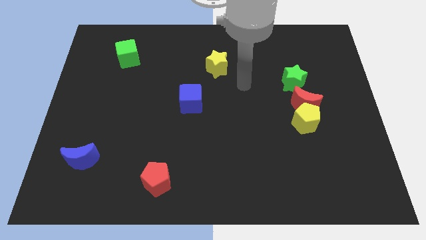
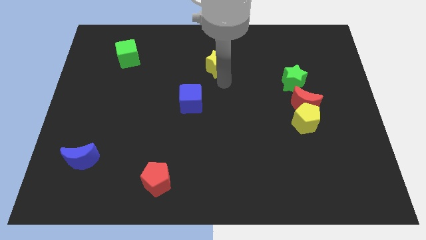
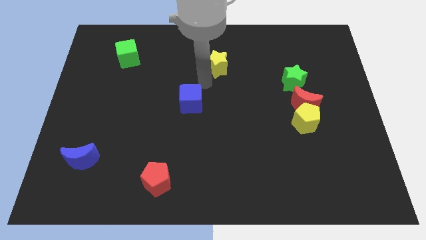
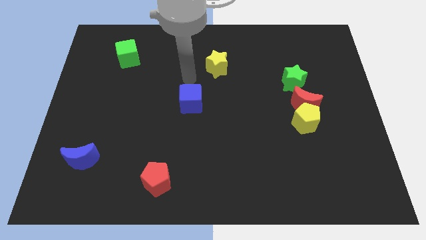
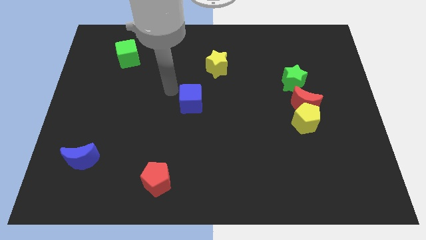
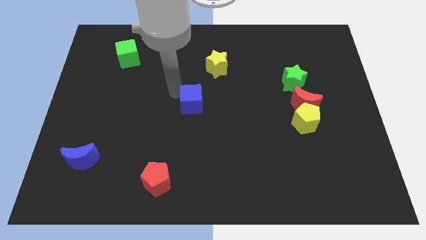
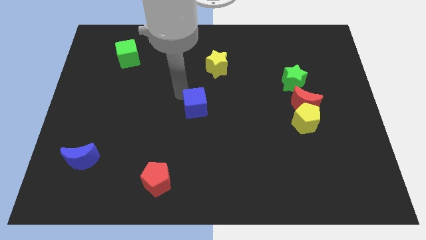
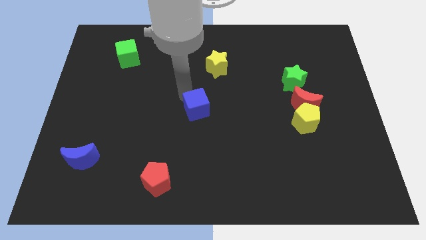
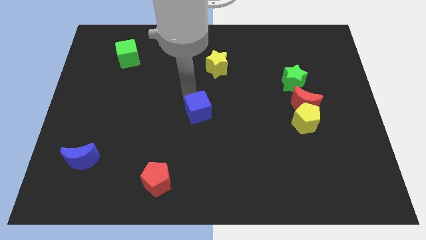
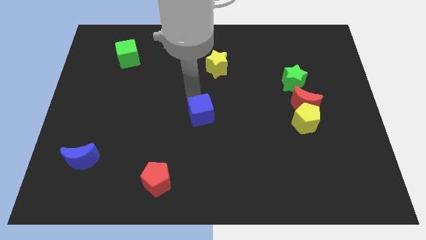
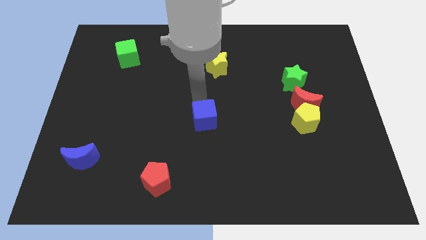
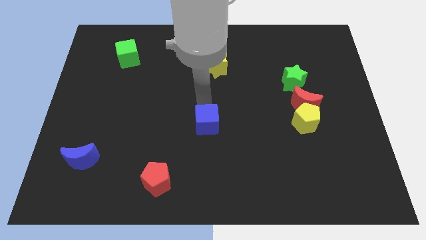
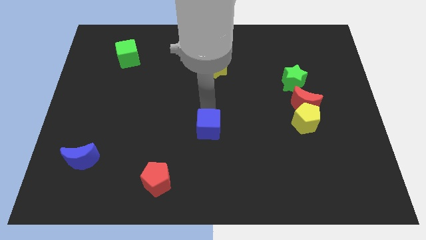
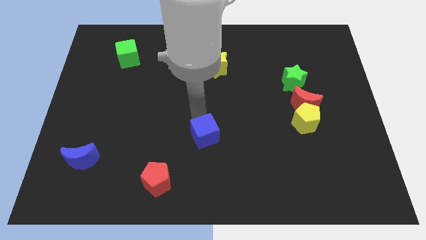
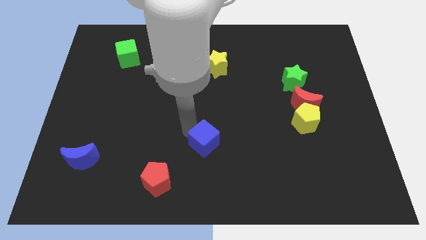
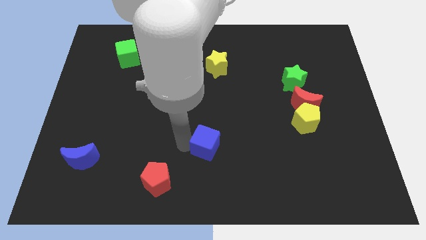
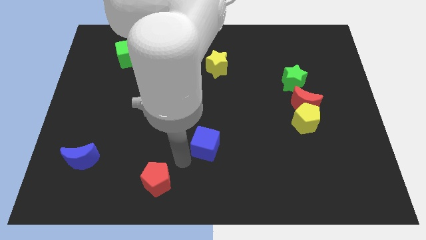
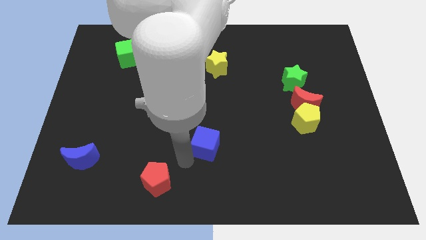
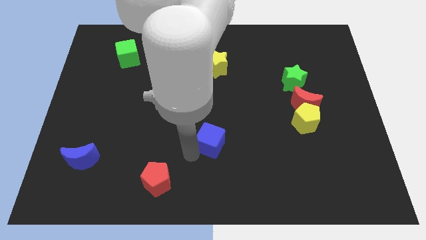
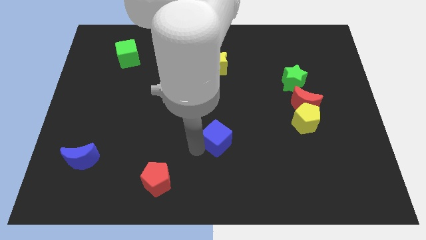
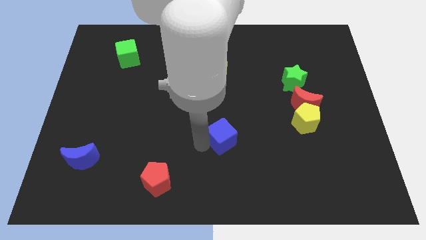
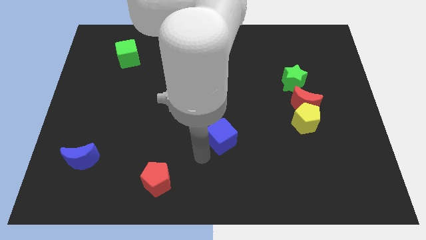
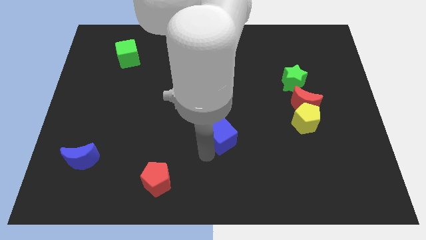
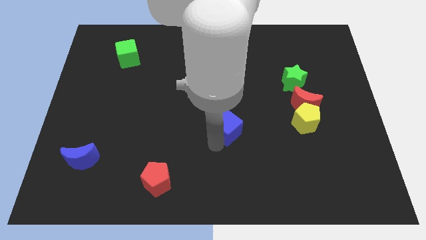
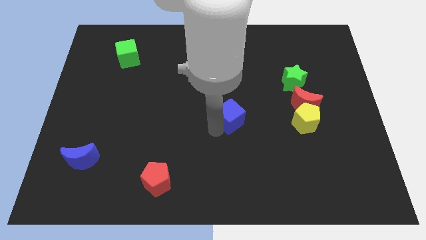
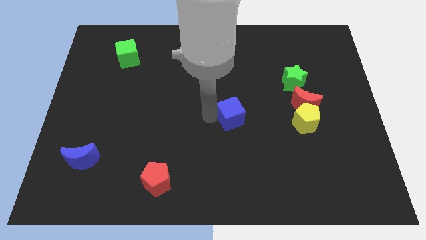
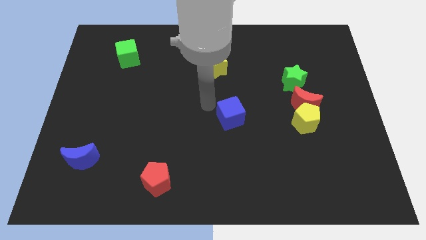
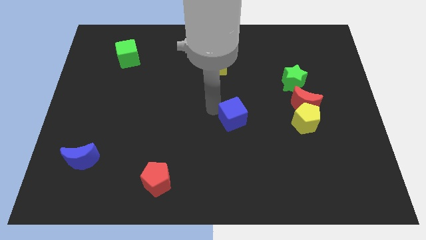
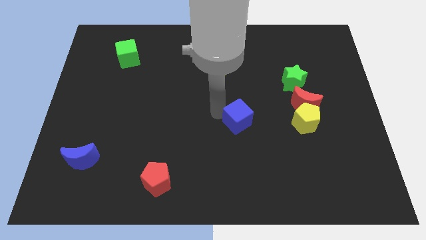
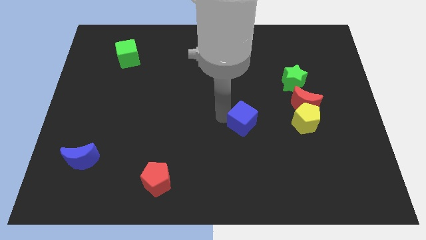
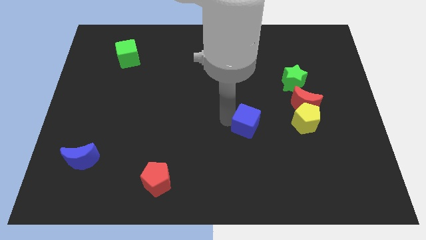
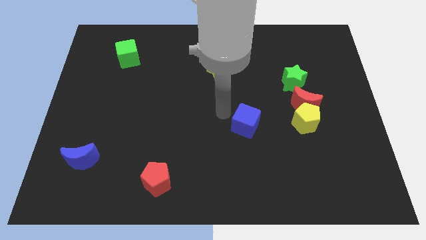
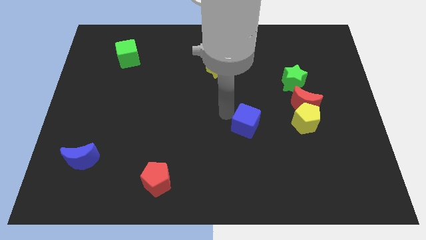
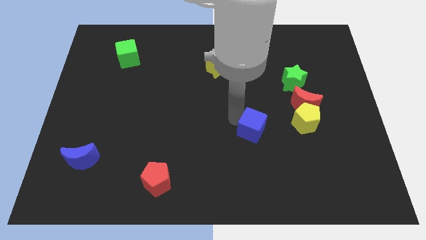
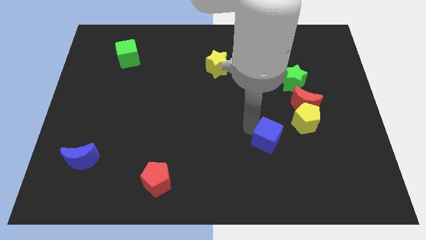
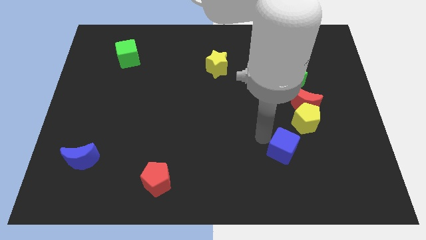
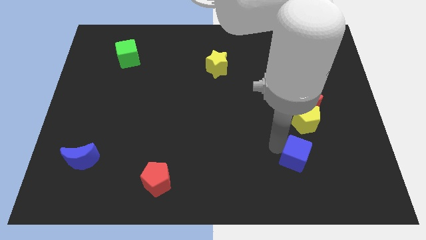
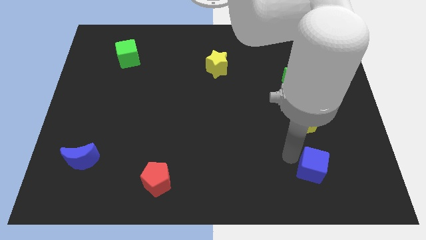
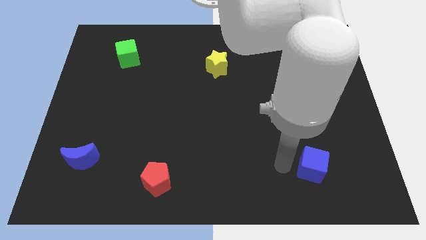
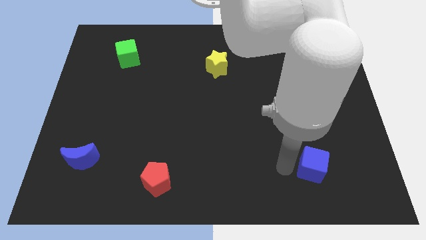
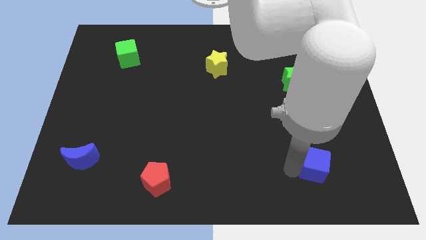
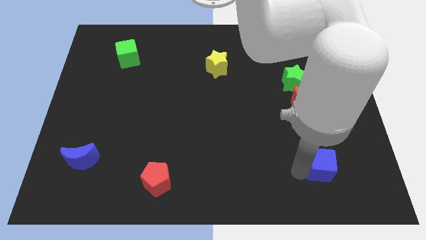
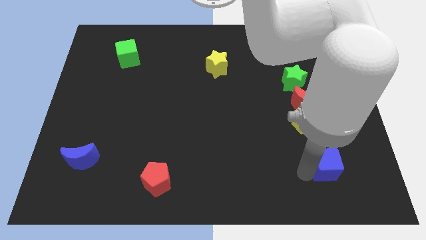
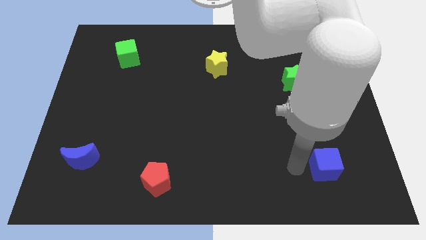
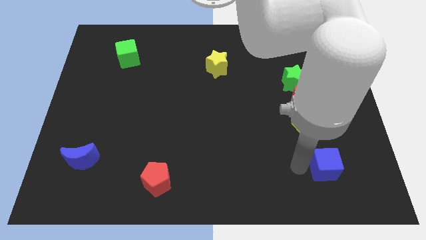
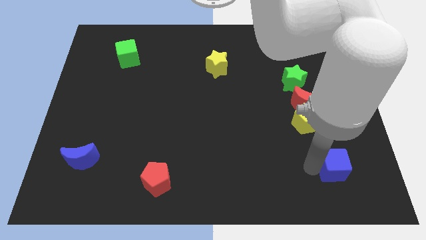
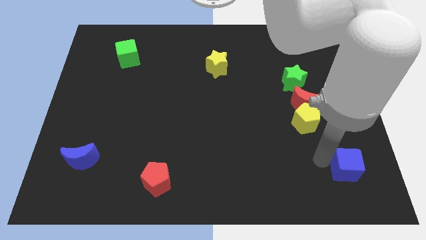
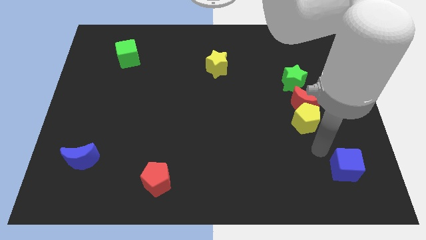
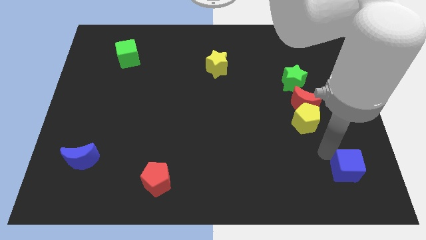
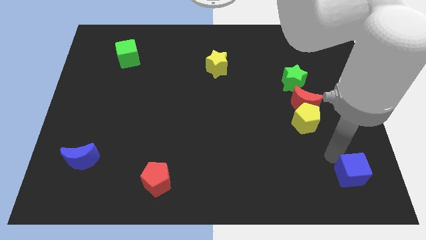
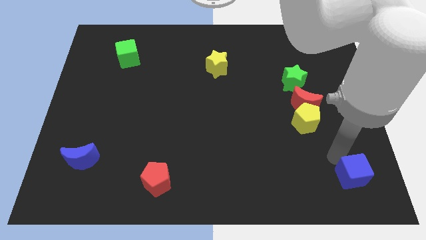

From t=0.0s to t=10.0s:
move the blue cube to the bottom right

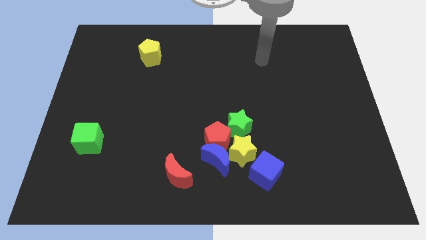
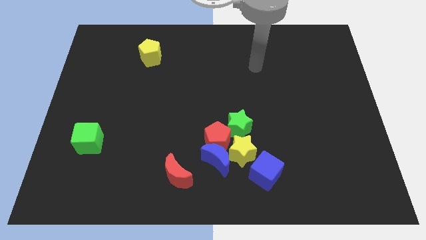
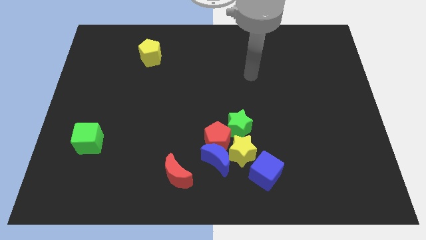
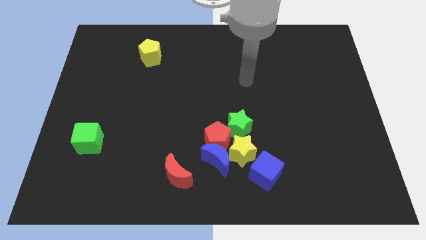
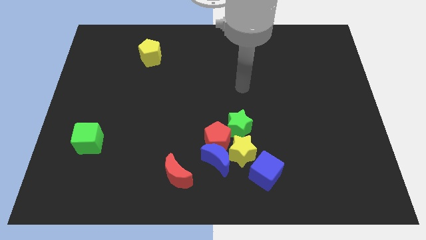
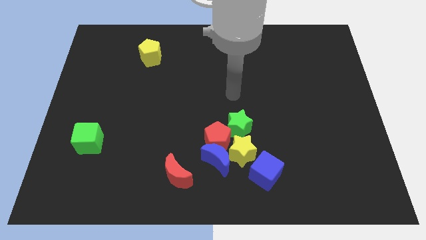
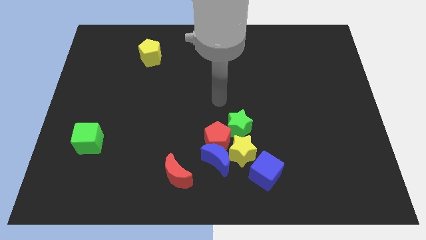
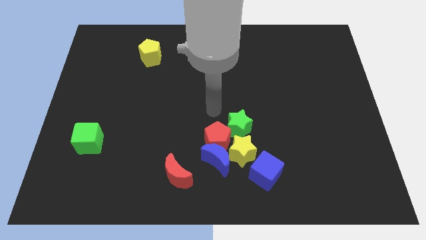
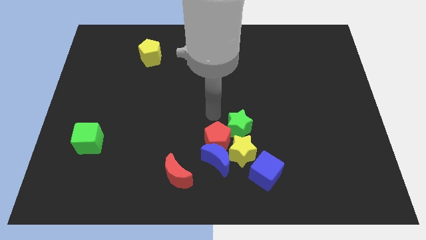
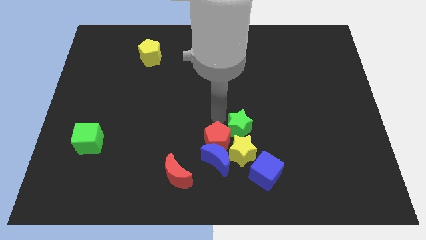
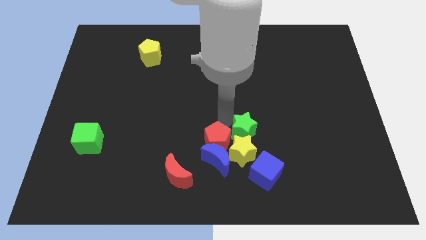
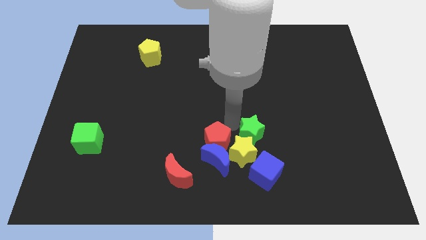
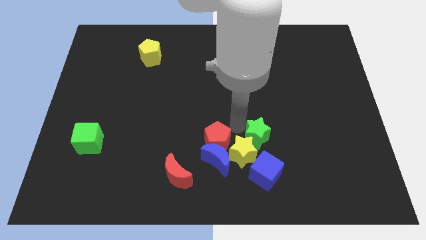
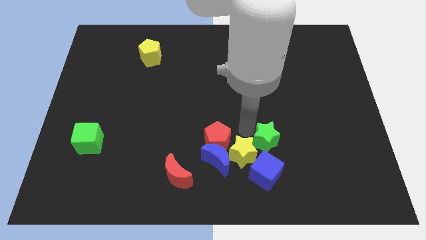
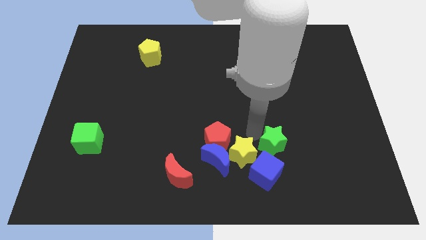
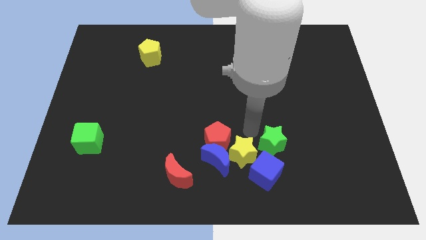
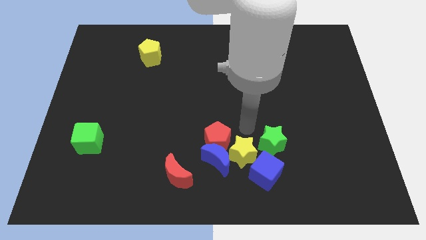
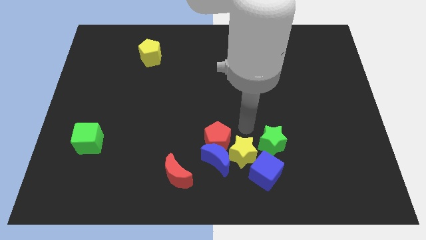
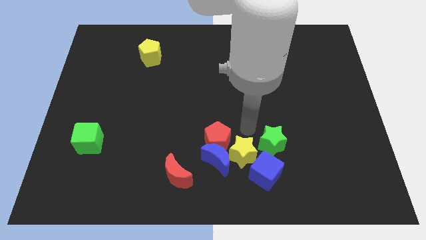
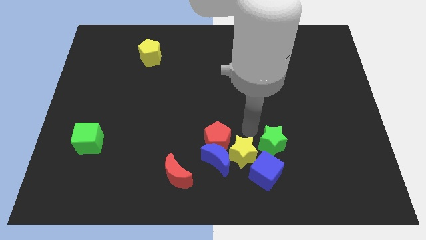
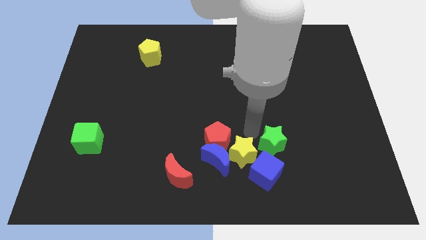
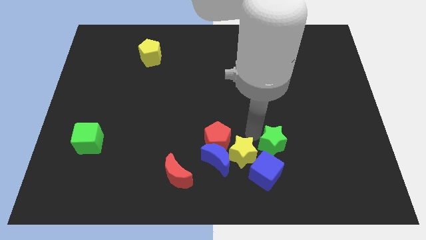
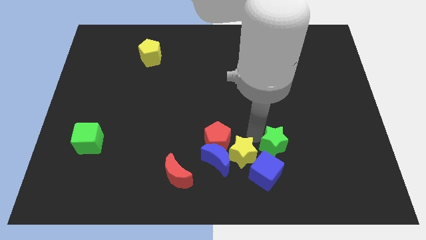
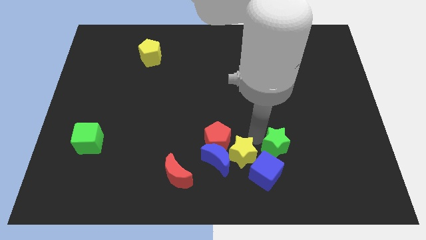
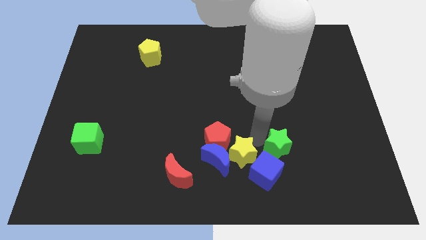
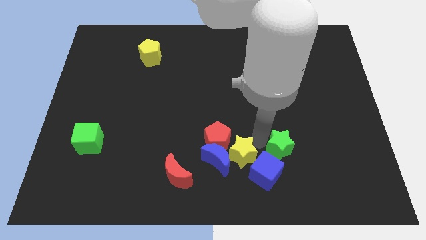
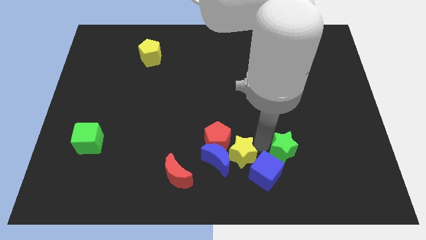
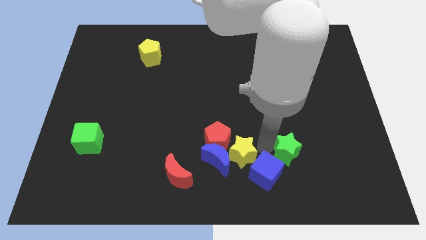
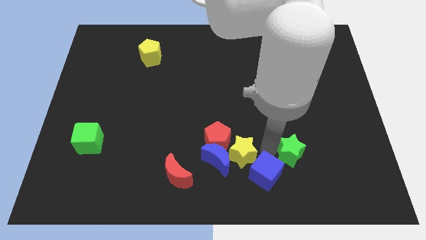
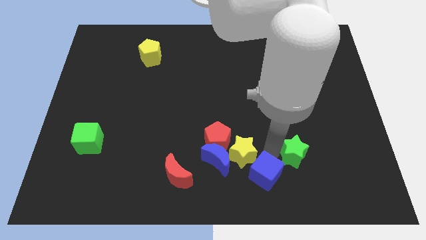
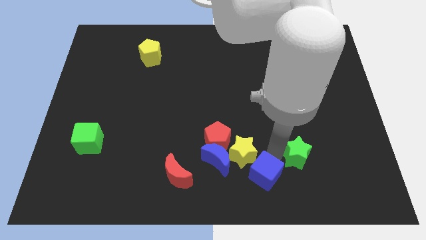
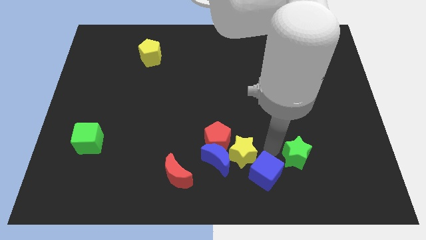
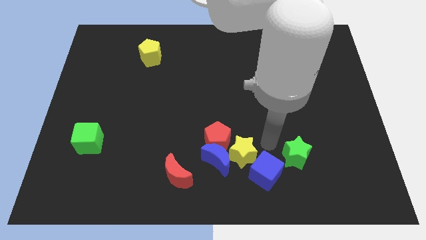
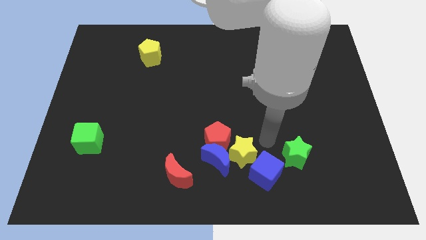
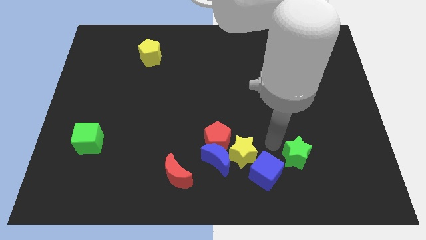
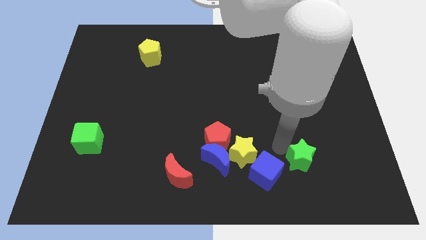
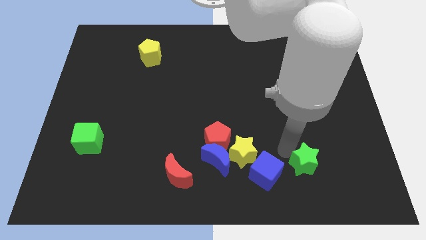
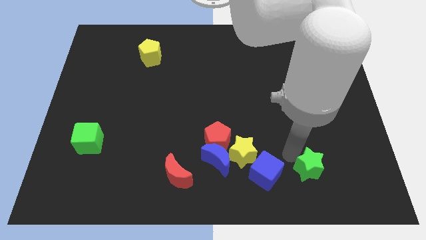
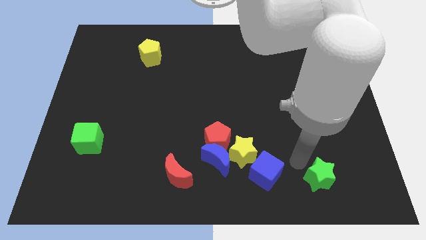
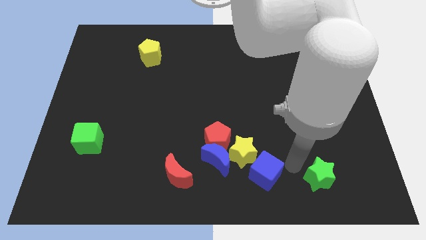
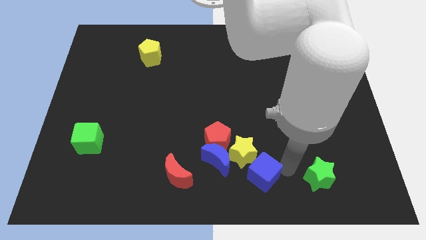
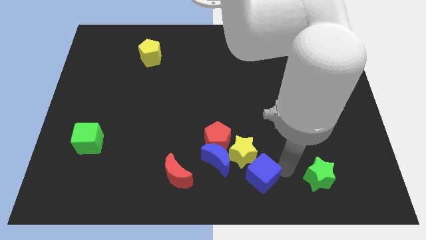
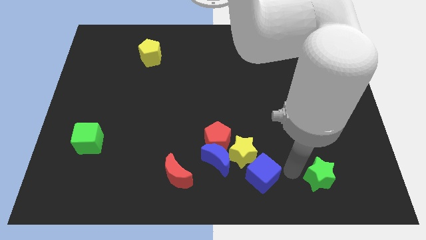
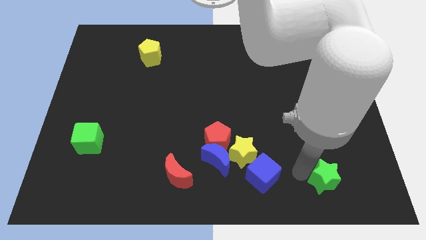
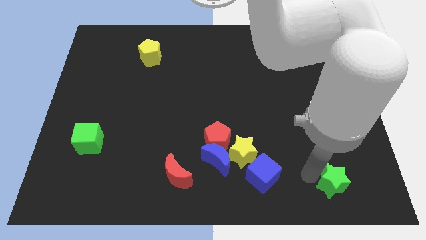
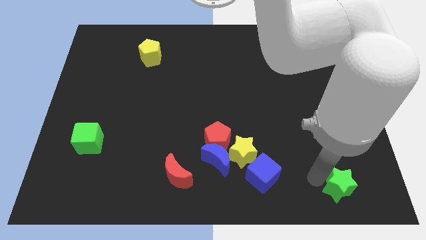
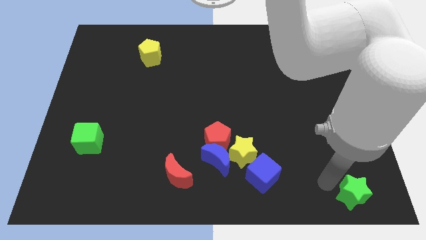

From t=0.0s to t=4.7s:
move the green star to the lower right corner
